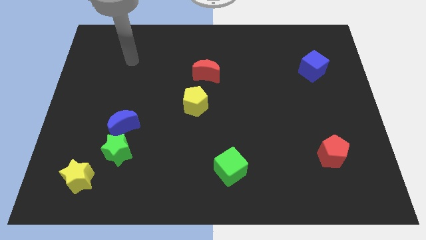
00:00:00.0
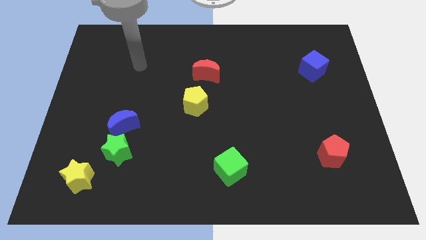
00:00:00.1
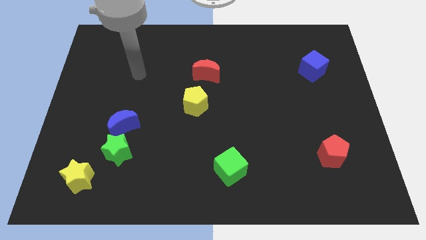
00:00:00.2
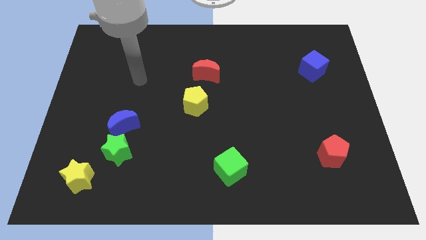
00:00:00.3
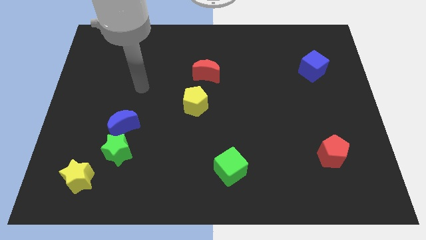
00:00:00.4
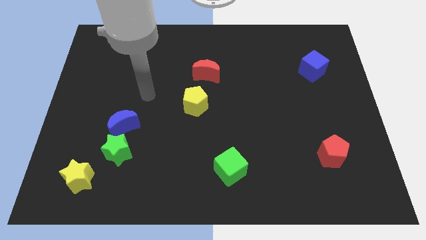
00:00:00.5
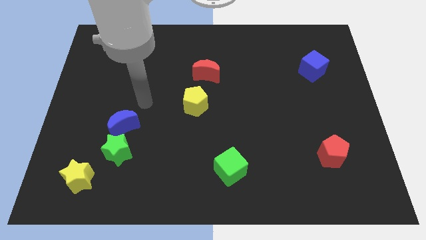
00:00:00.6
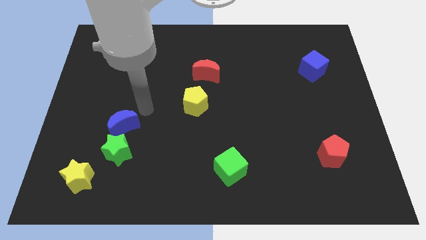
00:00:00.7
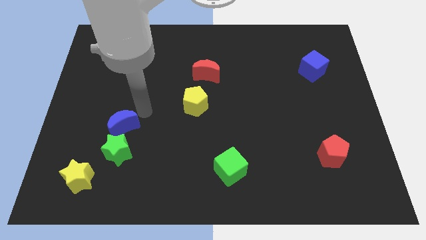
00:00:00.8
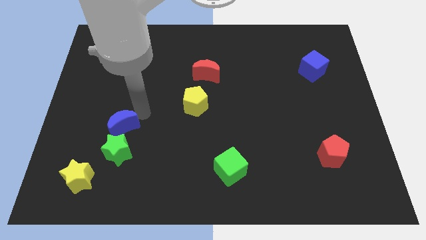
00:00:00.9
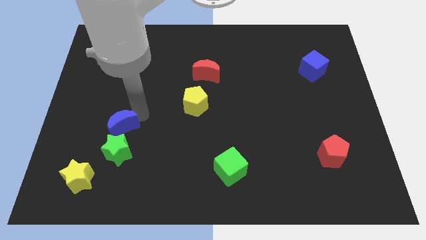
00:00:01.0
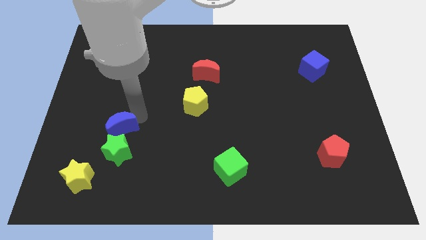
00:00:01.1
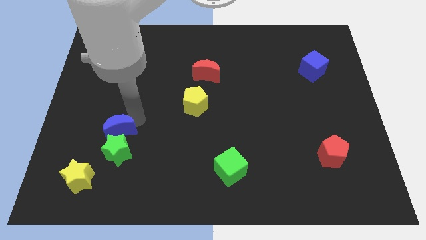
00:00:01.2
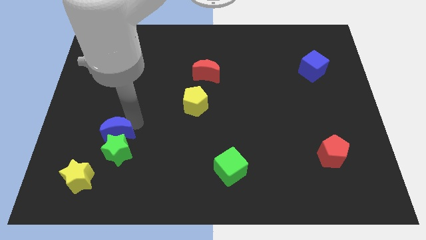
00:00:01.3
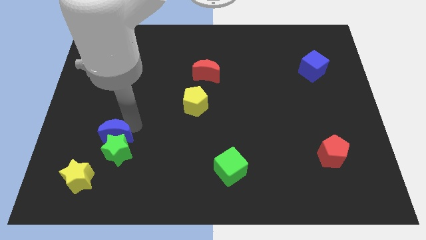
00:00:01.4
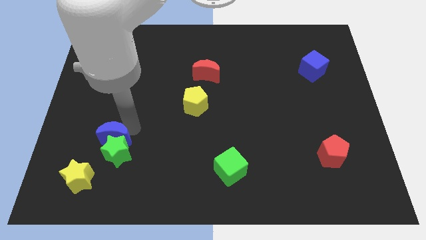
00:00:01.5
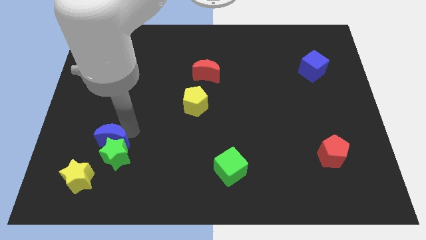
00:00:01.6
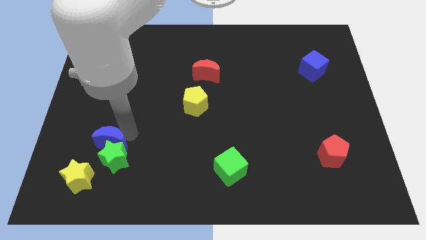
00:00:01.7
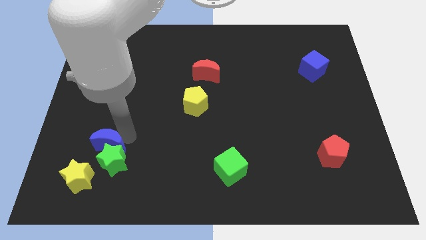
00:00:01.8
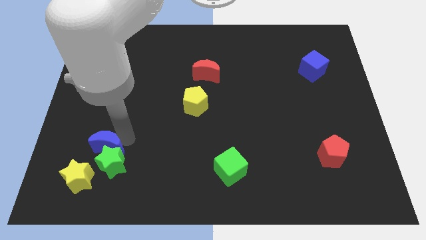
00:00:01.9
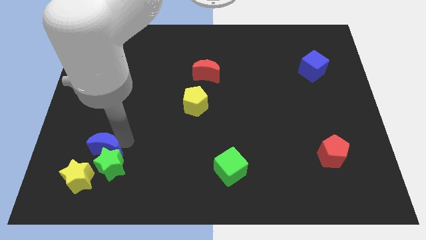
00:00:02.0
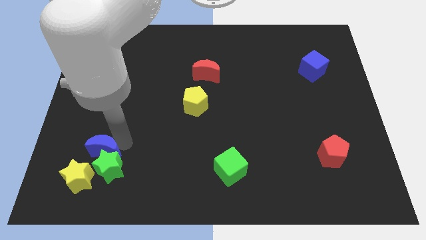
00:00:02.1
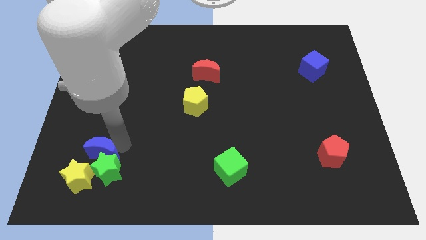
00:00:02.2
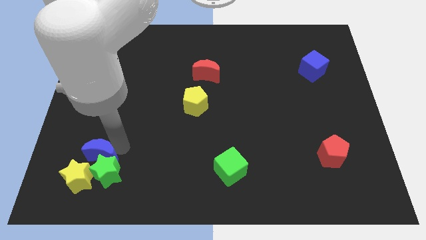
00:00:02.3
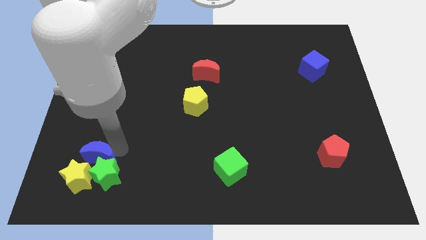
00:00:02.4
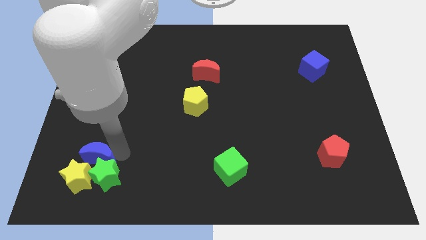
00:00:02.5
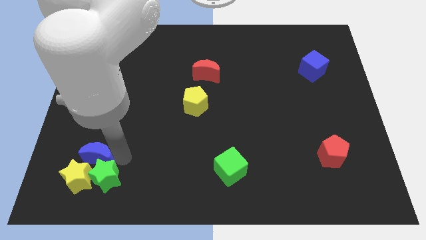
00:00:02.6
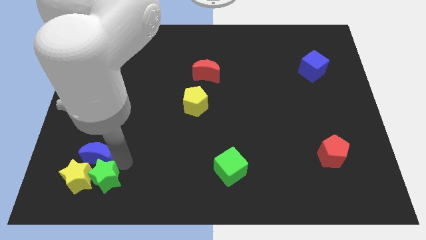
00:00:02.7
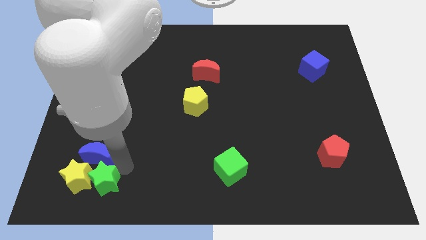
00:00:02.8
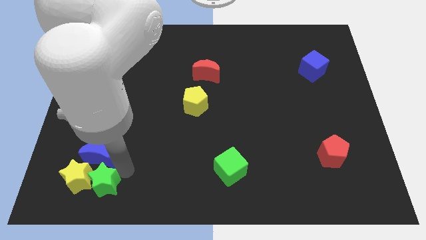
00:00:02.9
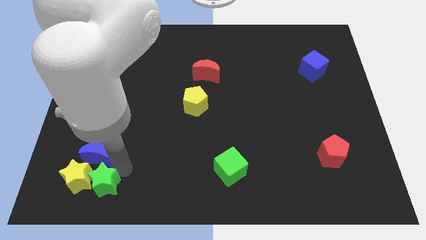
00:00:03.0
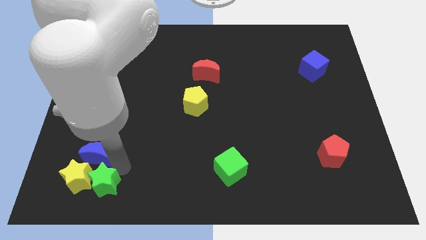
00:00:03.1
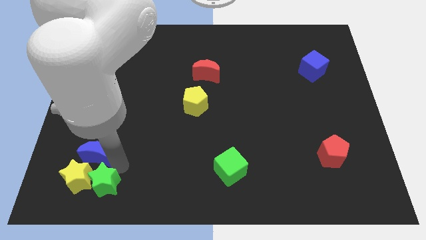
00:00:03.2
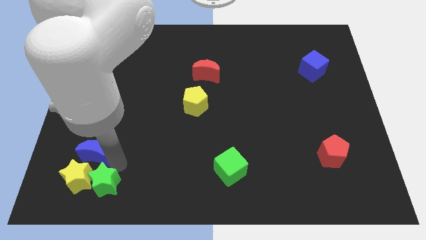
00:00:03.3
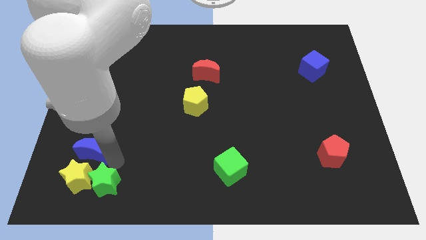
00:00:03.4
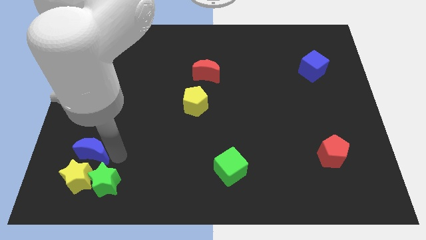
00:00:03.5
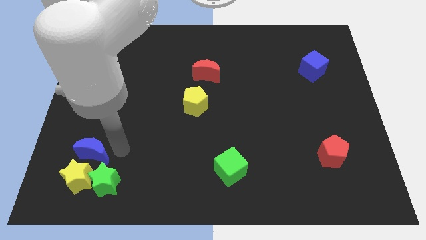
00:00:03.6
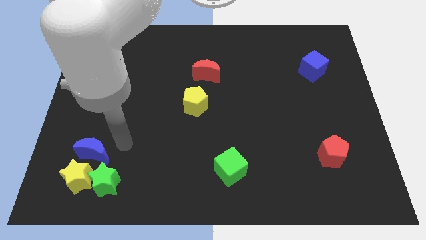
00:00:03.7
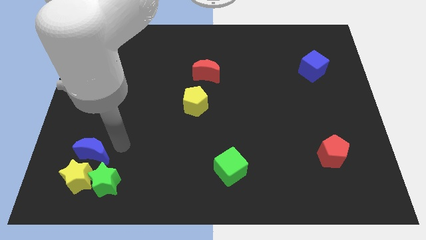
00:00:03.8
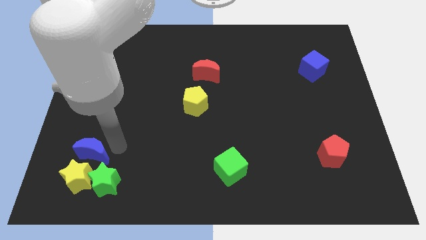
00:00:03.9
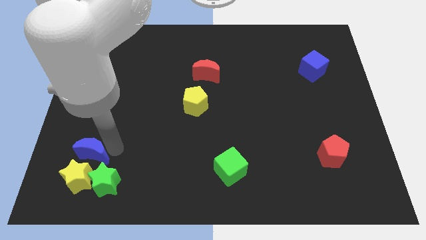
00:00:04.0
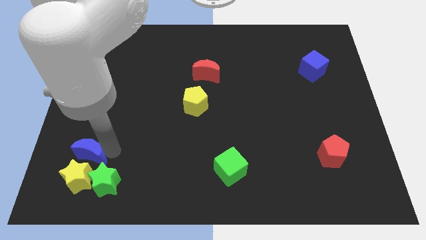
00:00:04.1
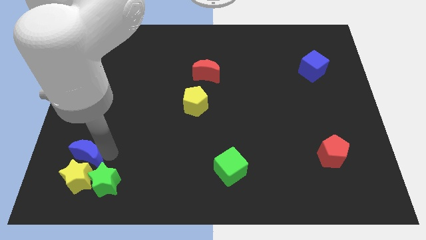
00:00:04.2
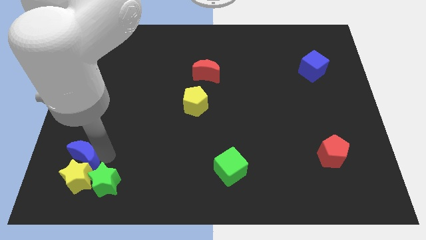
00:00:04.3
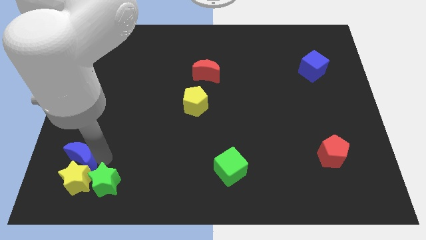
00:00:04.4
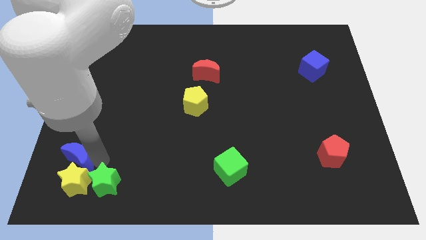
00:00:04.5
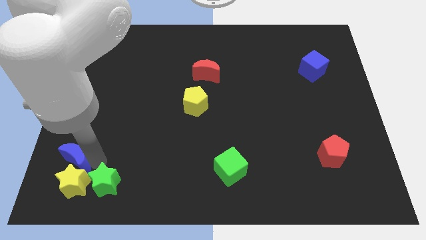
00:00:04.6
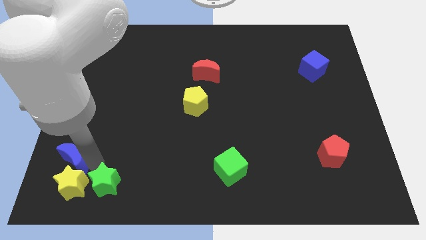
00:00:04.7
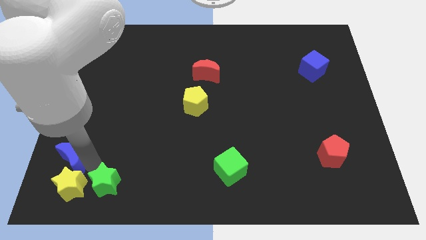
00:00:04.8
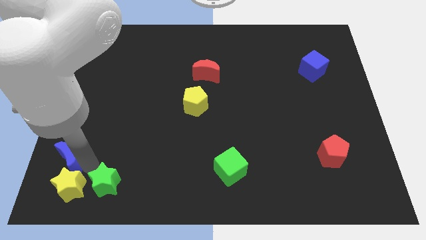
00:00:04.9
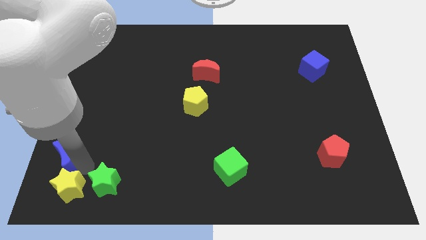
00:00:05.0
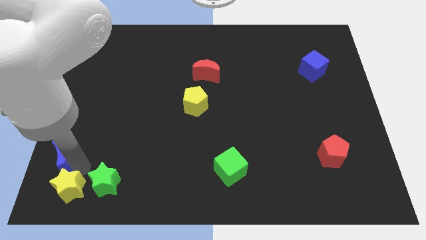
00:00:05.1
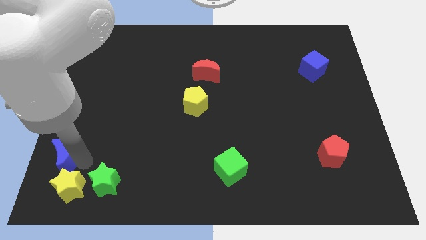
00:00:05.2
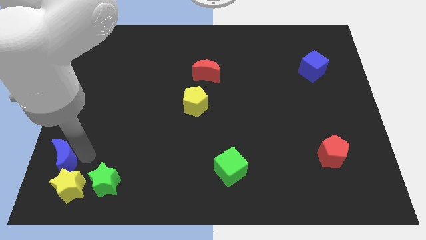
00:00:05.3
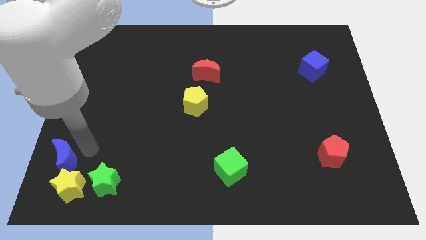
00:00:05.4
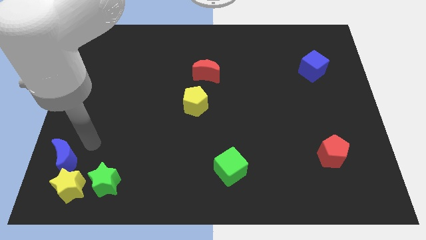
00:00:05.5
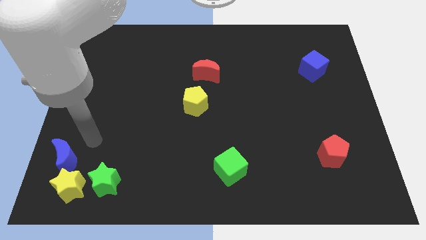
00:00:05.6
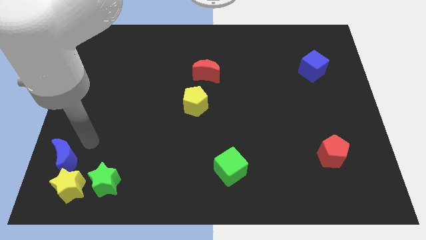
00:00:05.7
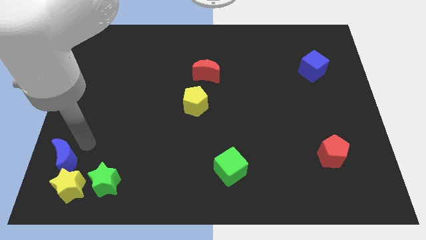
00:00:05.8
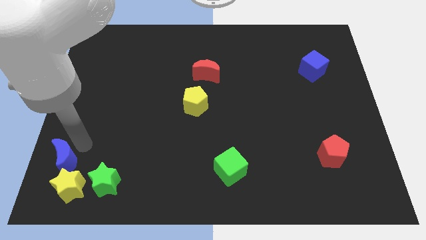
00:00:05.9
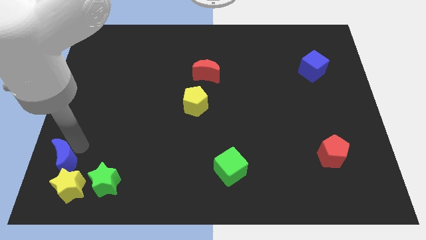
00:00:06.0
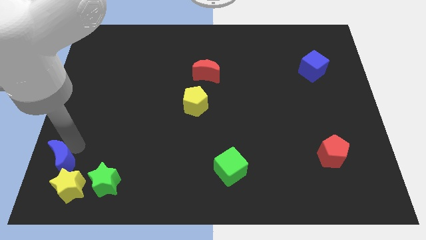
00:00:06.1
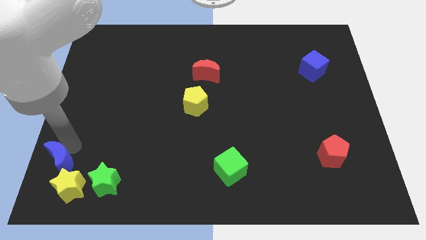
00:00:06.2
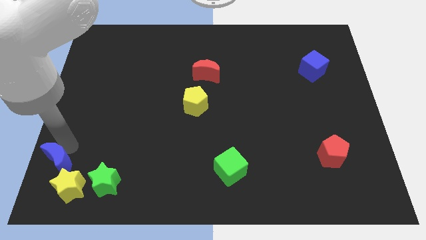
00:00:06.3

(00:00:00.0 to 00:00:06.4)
put the blue moon to the lower left corner
